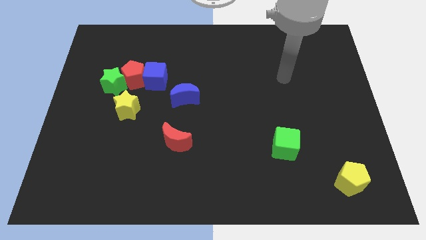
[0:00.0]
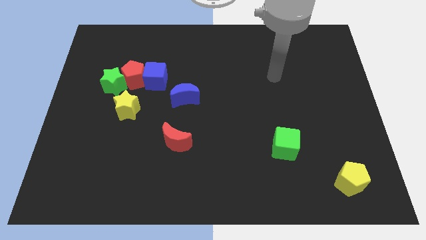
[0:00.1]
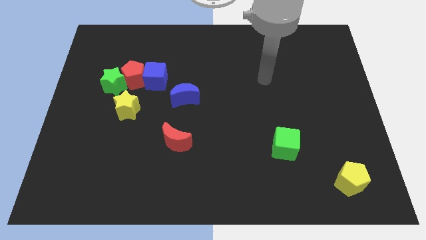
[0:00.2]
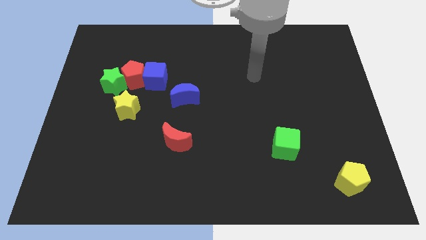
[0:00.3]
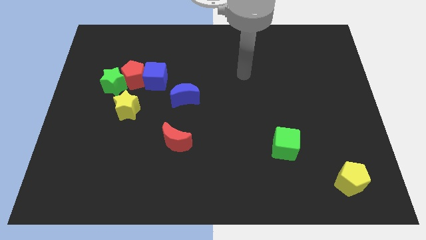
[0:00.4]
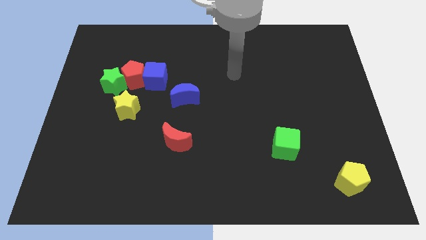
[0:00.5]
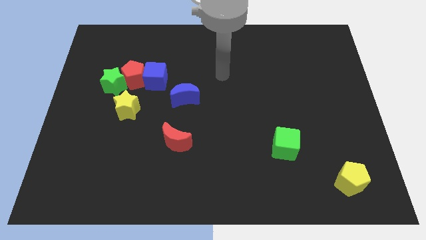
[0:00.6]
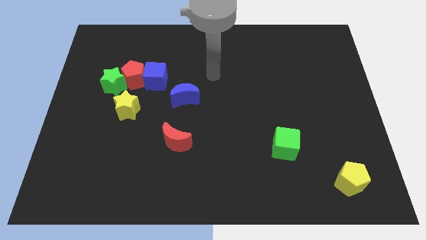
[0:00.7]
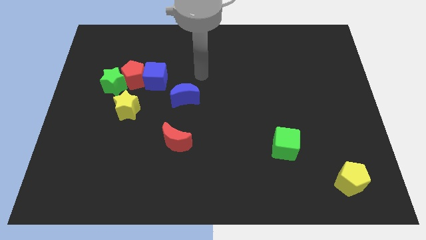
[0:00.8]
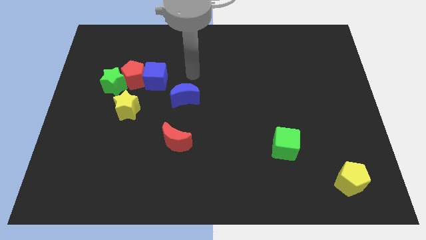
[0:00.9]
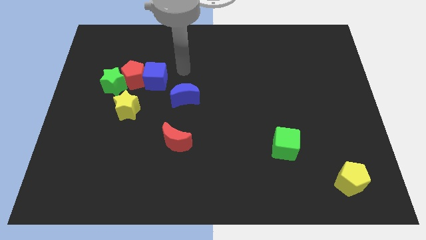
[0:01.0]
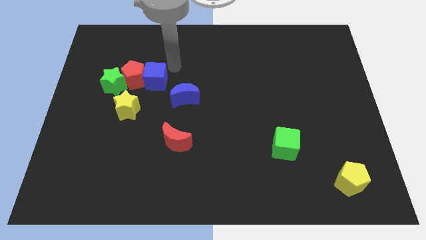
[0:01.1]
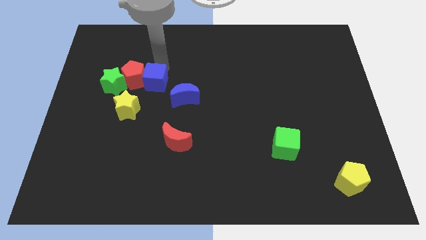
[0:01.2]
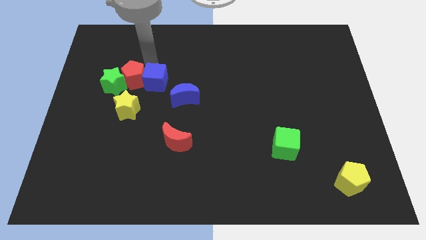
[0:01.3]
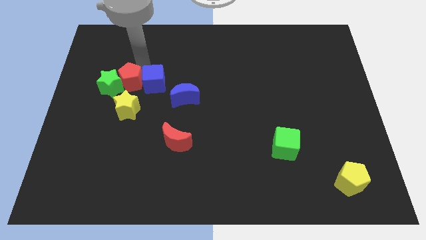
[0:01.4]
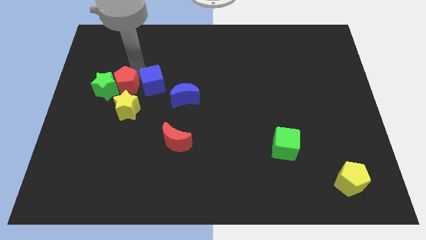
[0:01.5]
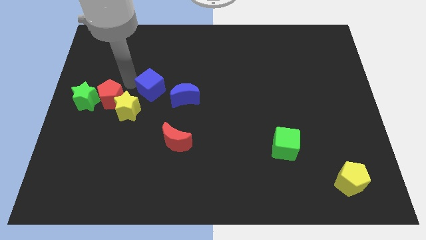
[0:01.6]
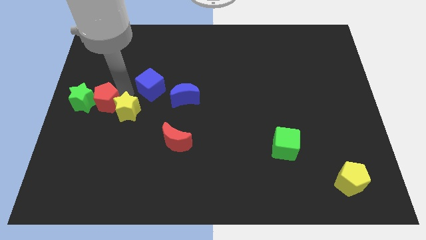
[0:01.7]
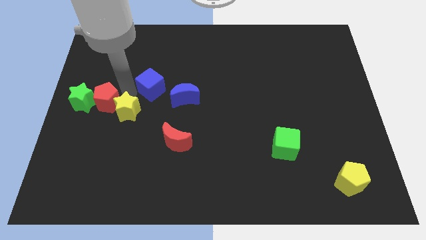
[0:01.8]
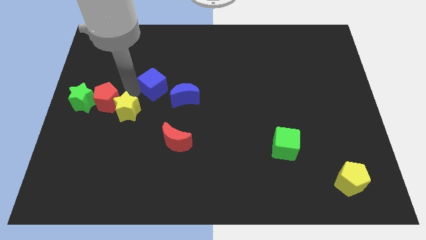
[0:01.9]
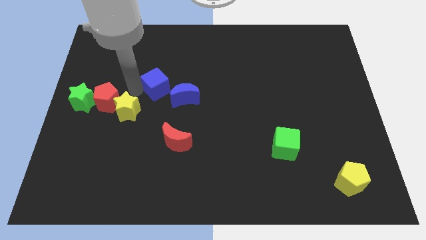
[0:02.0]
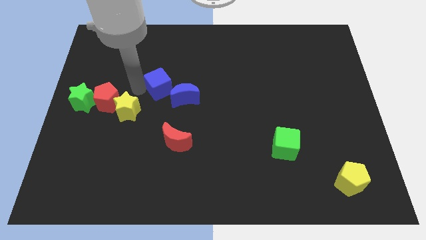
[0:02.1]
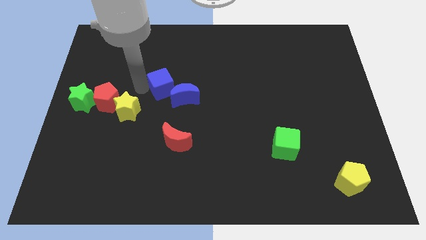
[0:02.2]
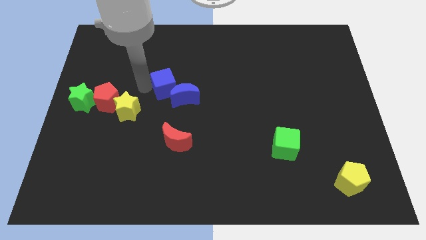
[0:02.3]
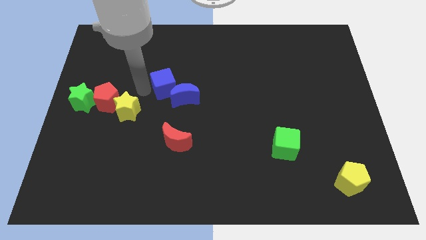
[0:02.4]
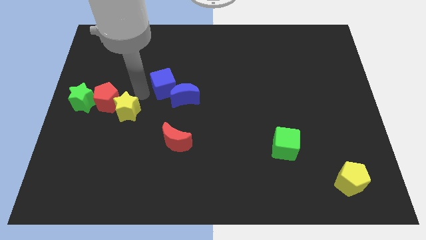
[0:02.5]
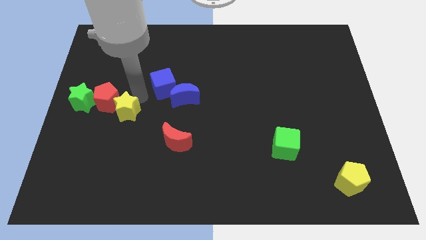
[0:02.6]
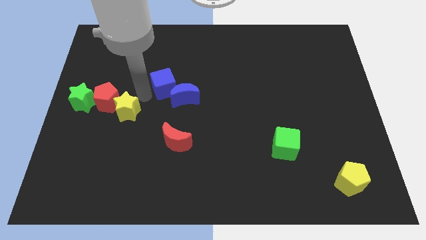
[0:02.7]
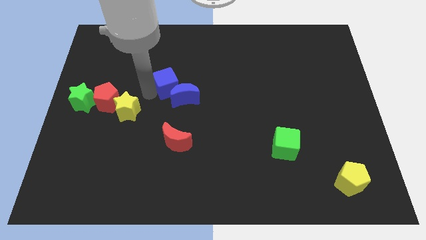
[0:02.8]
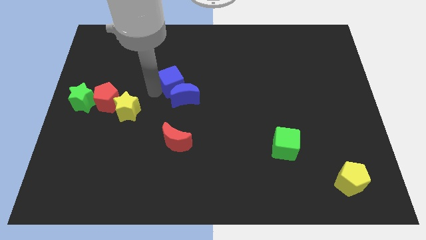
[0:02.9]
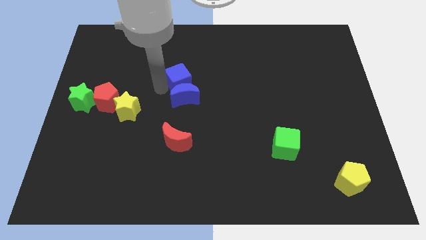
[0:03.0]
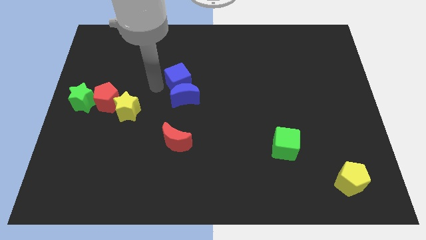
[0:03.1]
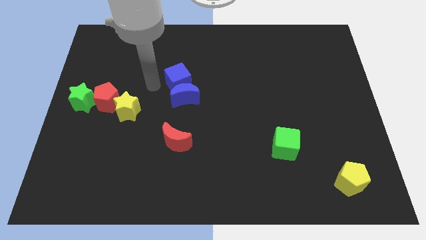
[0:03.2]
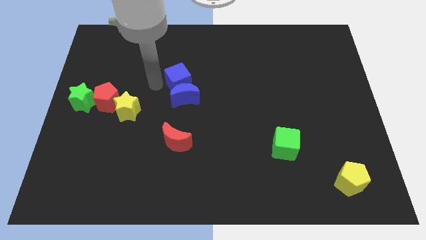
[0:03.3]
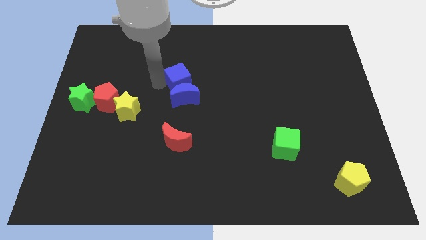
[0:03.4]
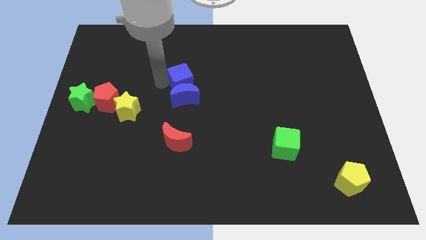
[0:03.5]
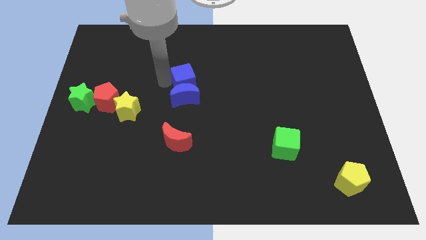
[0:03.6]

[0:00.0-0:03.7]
slightly push the blue cube to the right

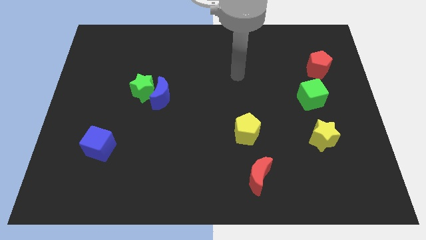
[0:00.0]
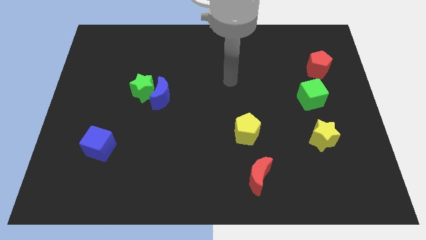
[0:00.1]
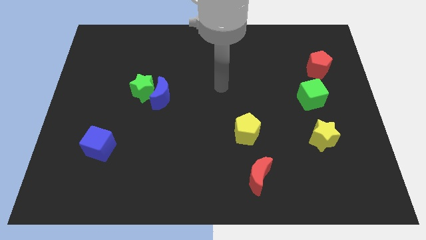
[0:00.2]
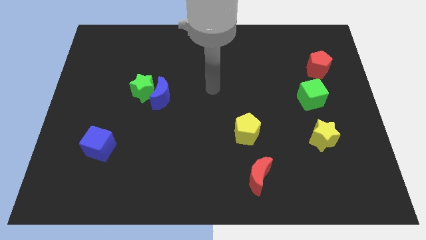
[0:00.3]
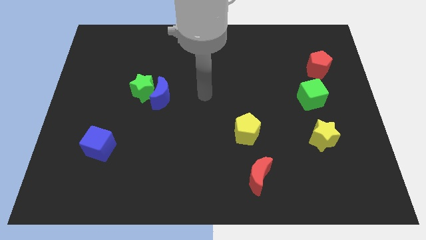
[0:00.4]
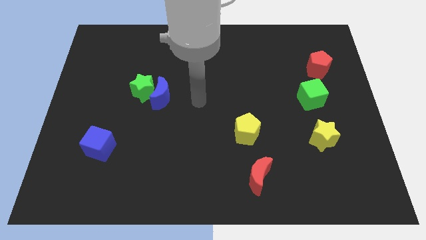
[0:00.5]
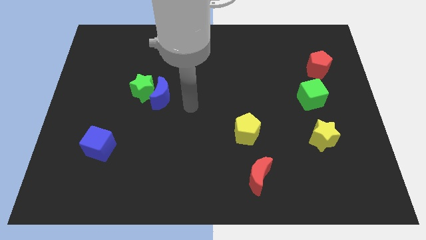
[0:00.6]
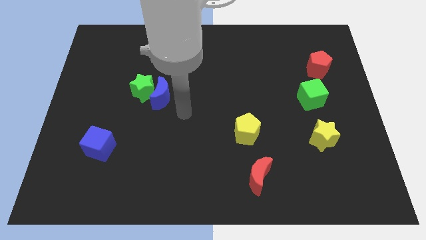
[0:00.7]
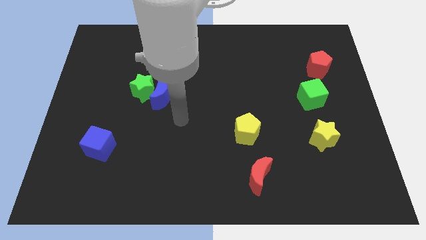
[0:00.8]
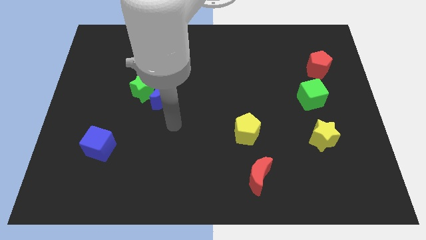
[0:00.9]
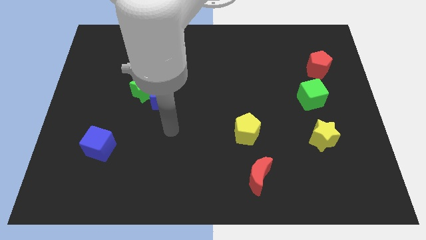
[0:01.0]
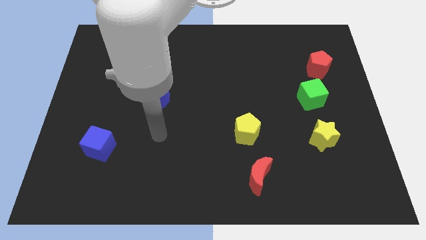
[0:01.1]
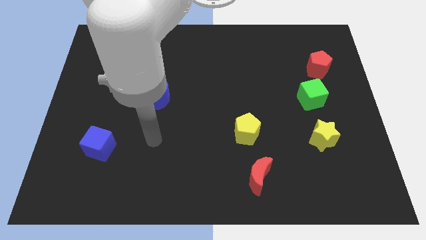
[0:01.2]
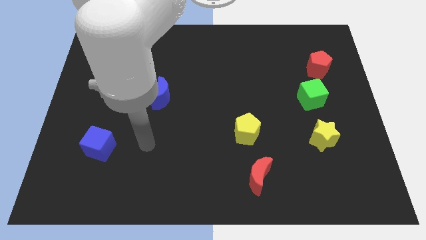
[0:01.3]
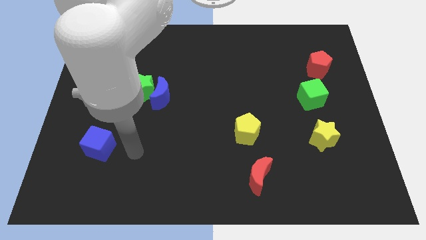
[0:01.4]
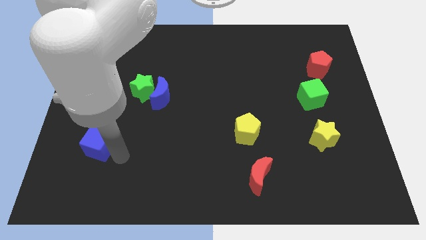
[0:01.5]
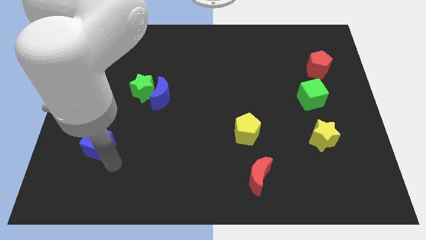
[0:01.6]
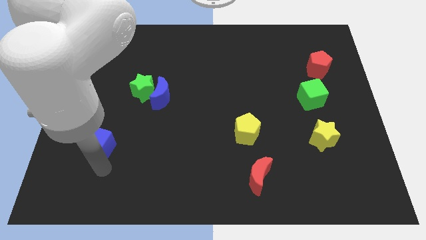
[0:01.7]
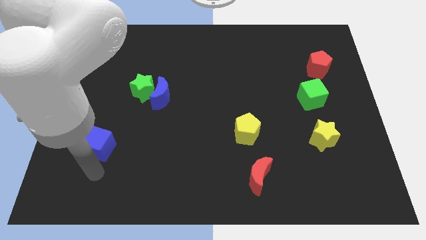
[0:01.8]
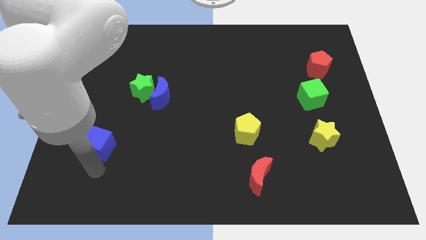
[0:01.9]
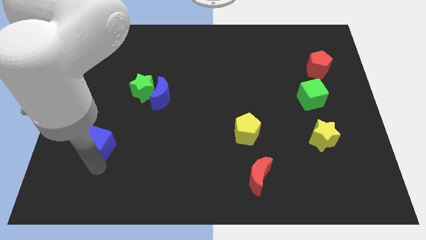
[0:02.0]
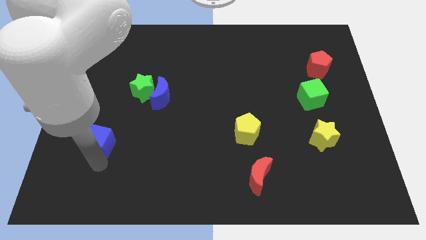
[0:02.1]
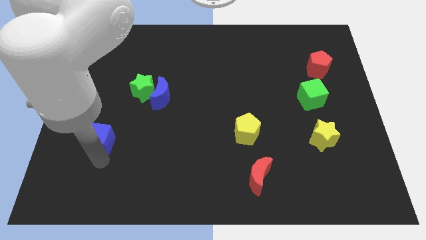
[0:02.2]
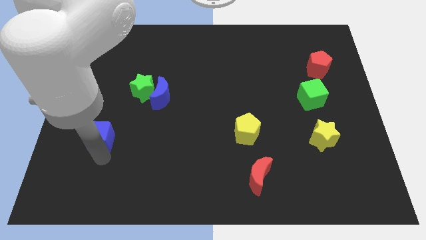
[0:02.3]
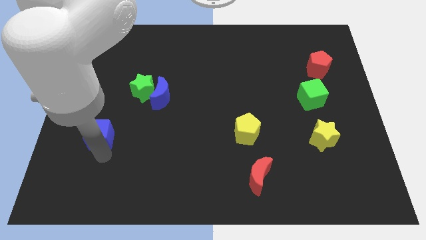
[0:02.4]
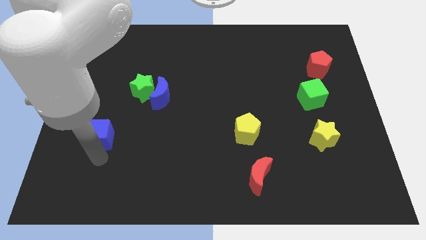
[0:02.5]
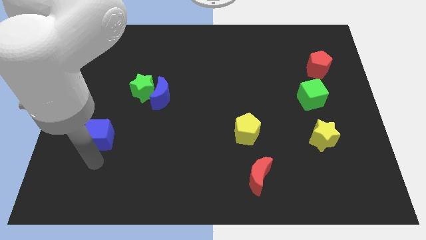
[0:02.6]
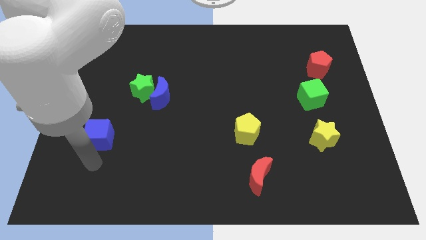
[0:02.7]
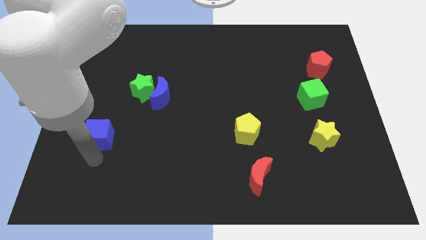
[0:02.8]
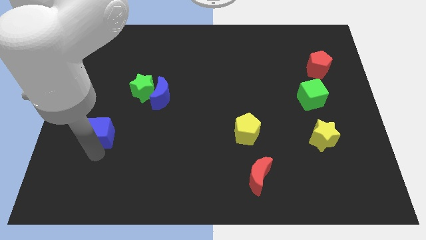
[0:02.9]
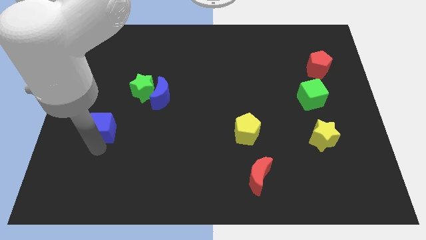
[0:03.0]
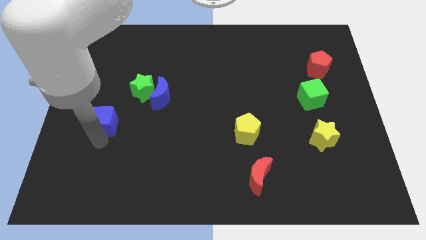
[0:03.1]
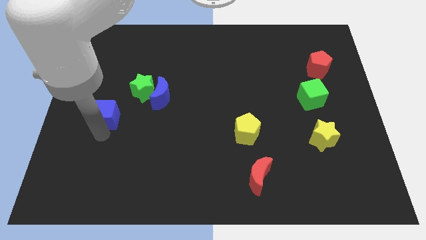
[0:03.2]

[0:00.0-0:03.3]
push the blue cube up a little bit

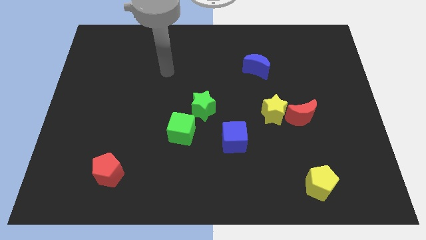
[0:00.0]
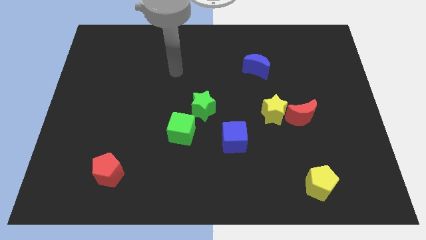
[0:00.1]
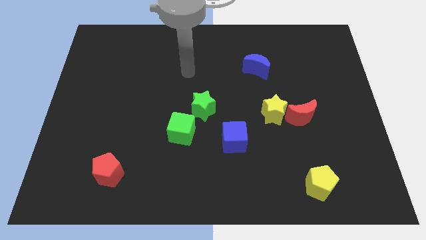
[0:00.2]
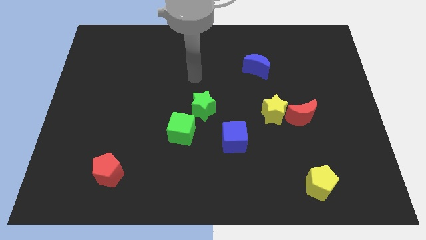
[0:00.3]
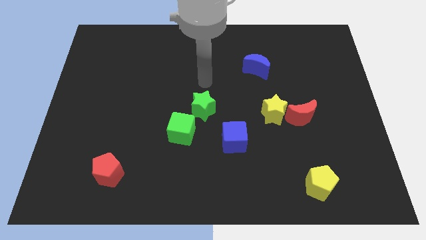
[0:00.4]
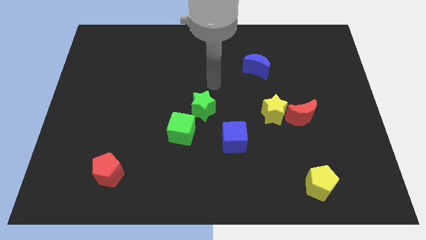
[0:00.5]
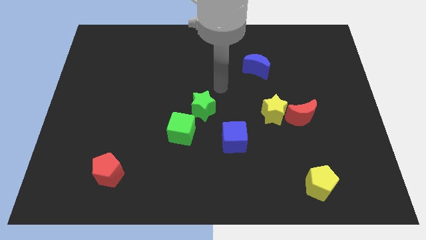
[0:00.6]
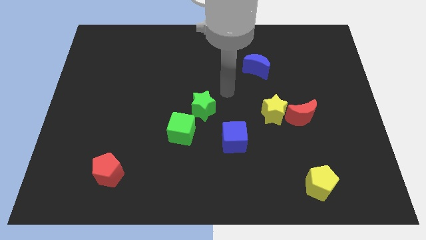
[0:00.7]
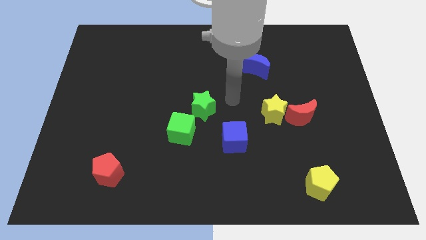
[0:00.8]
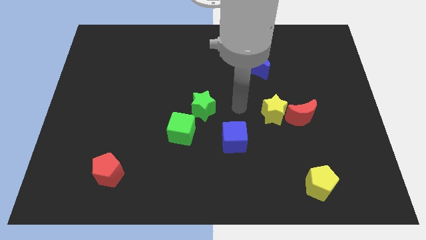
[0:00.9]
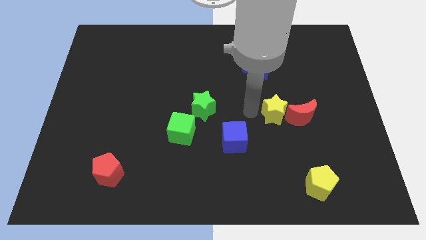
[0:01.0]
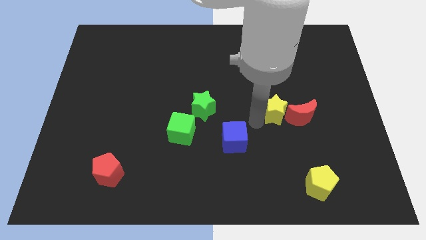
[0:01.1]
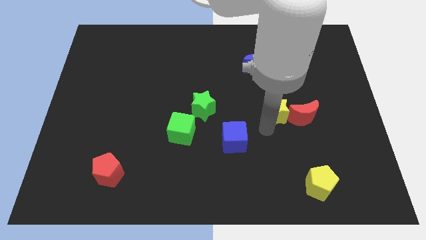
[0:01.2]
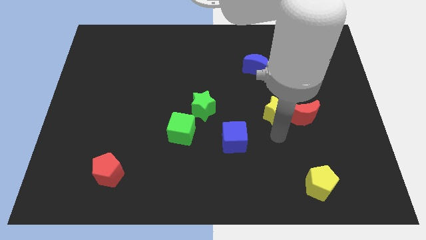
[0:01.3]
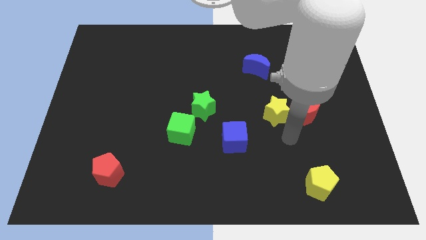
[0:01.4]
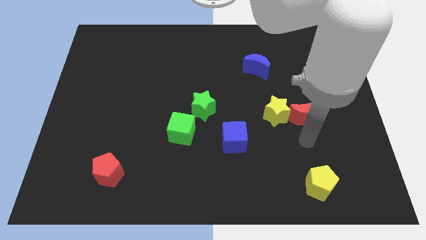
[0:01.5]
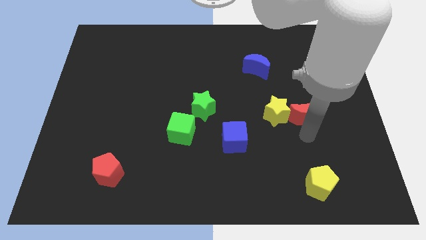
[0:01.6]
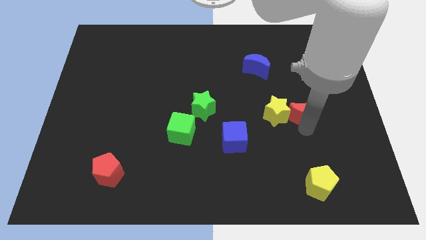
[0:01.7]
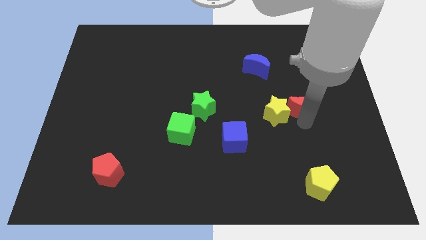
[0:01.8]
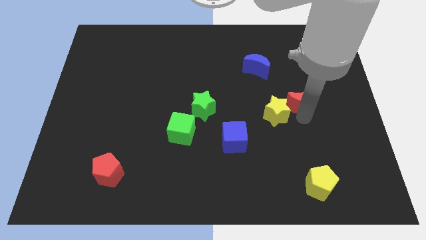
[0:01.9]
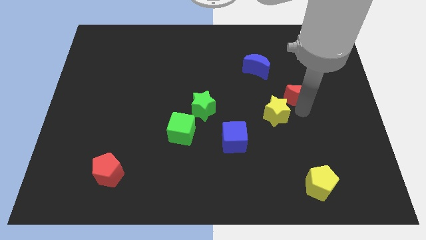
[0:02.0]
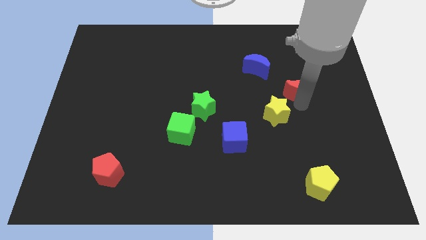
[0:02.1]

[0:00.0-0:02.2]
slide the red moon a little bit upwards
